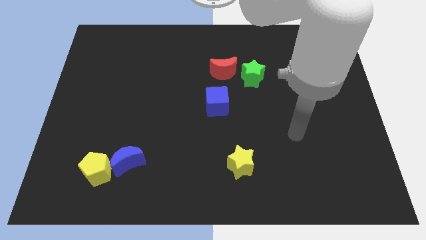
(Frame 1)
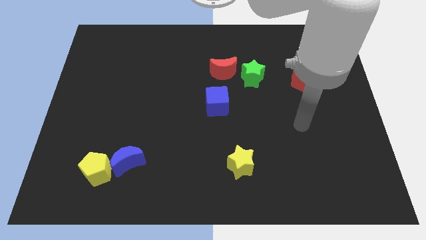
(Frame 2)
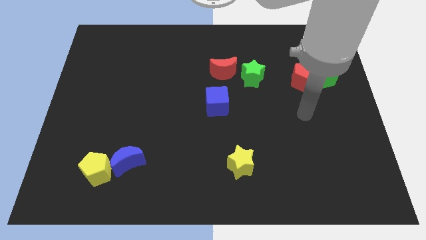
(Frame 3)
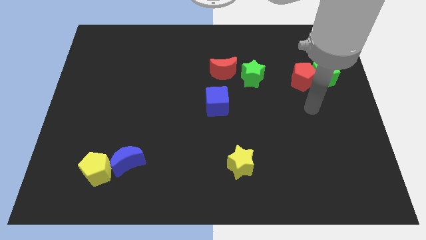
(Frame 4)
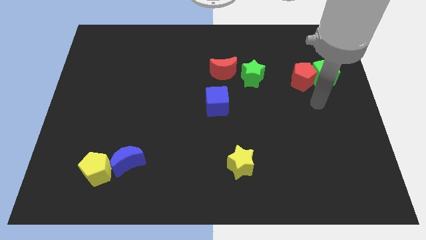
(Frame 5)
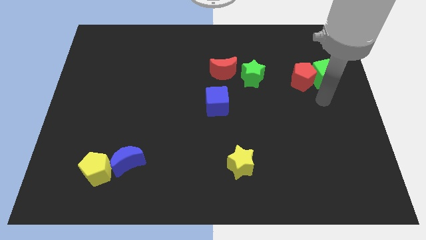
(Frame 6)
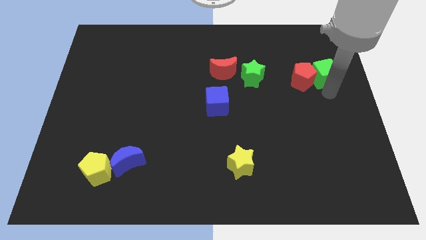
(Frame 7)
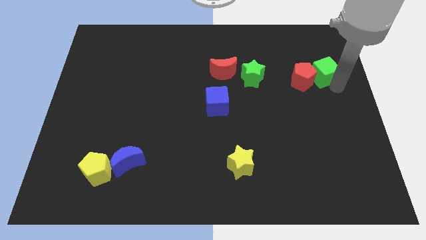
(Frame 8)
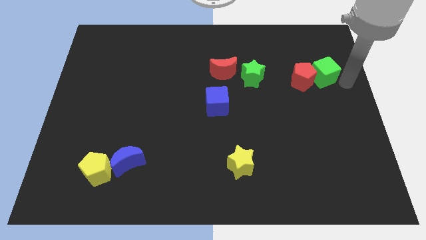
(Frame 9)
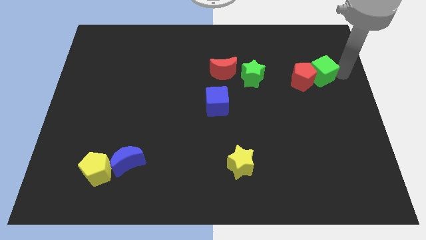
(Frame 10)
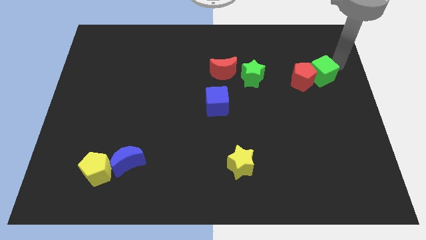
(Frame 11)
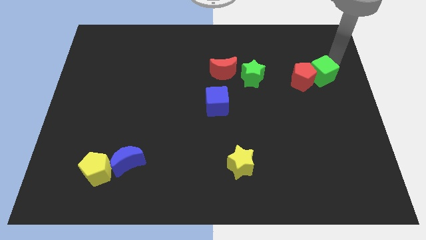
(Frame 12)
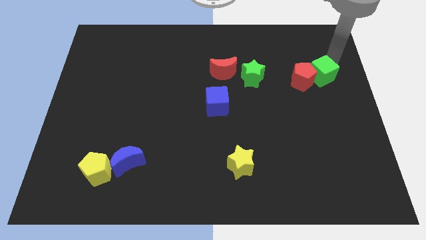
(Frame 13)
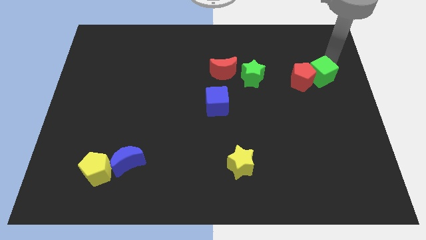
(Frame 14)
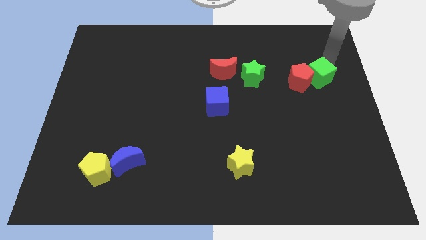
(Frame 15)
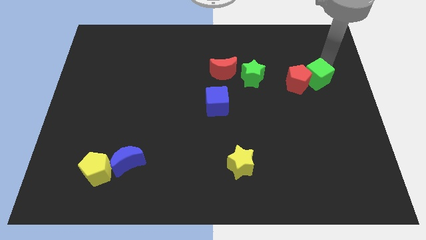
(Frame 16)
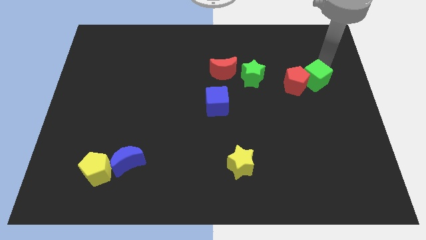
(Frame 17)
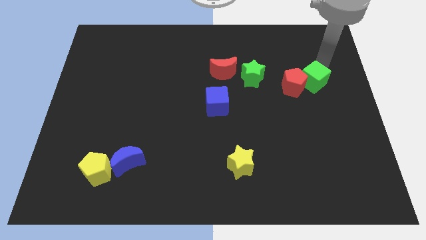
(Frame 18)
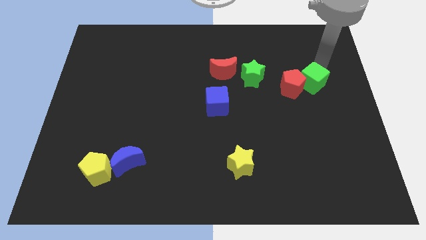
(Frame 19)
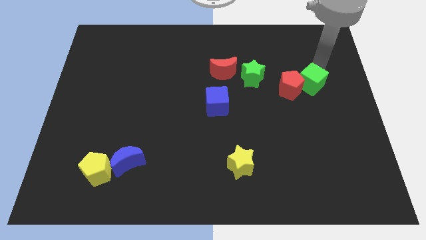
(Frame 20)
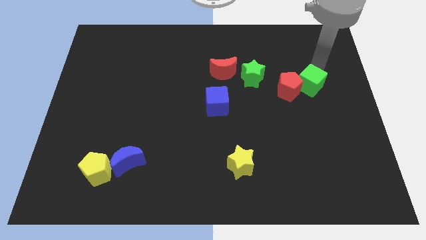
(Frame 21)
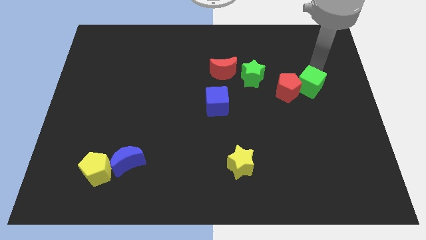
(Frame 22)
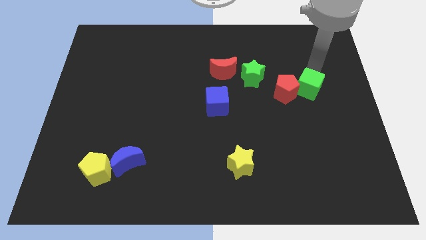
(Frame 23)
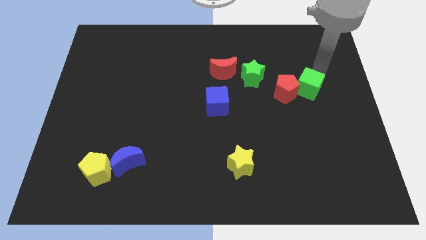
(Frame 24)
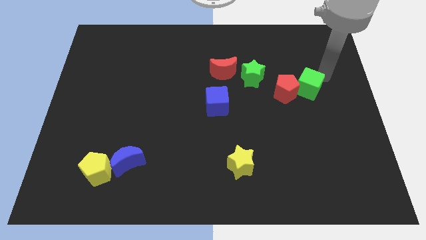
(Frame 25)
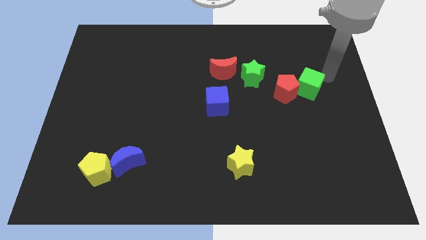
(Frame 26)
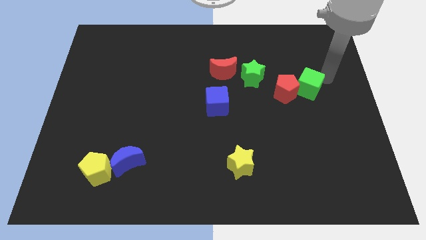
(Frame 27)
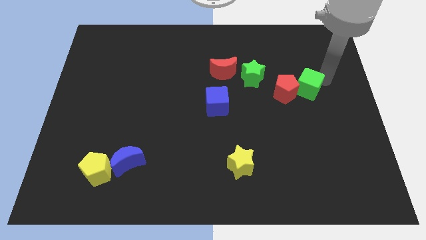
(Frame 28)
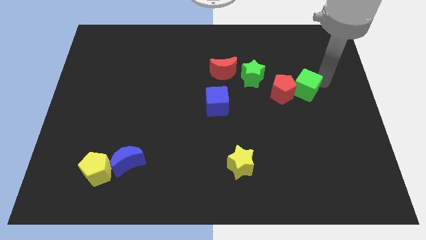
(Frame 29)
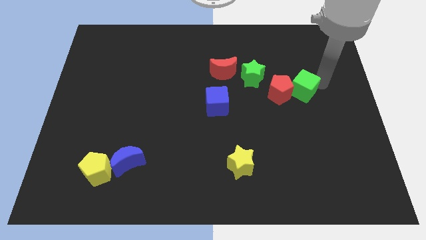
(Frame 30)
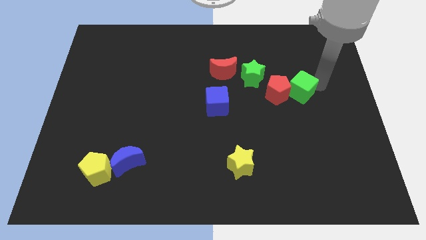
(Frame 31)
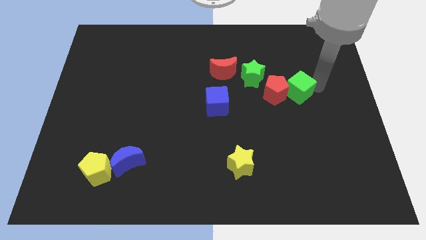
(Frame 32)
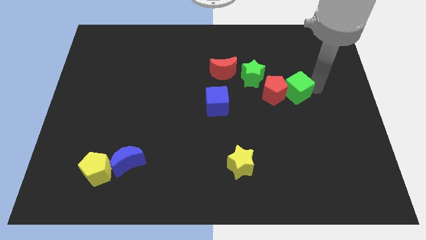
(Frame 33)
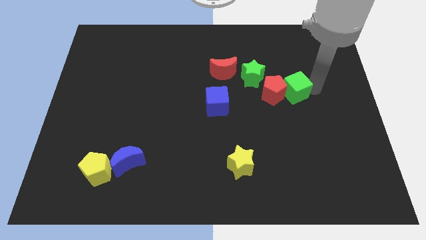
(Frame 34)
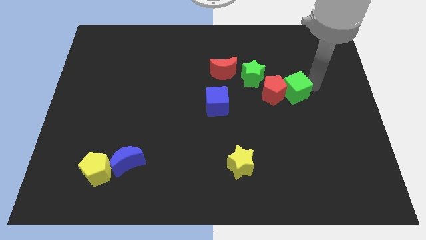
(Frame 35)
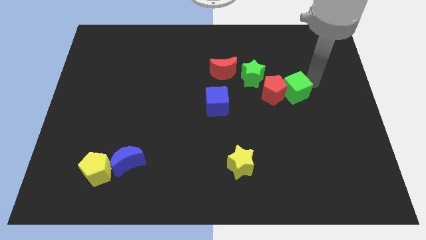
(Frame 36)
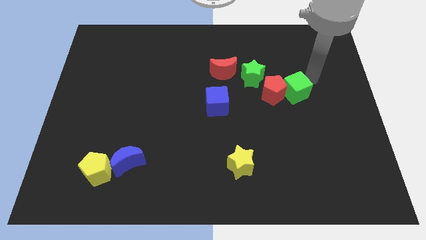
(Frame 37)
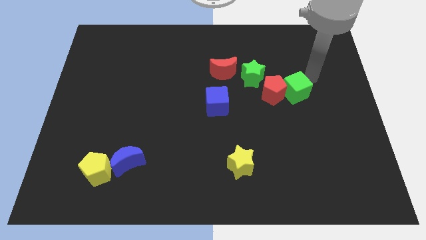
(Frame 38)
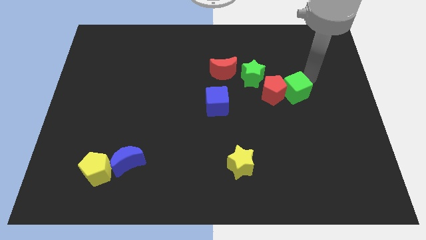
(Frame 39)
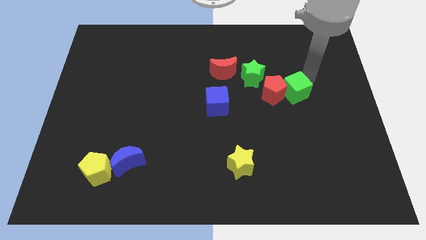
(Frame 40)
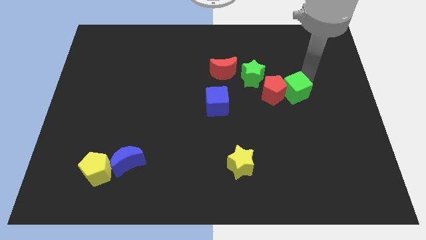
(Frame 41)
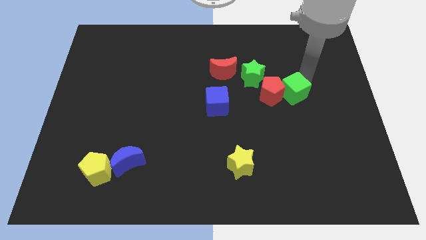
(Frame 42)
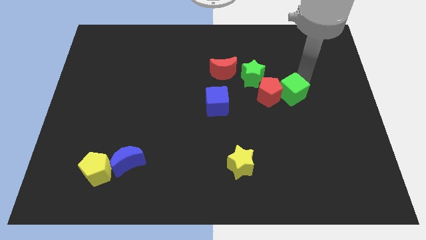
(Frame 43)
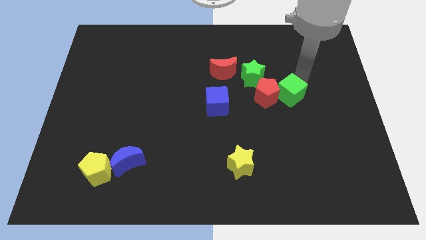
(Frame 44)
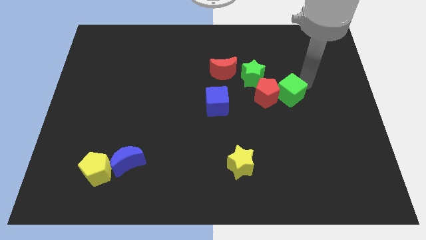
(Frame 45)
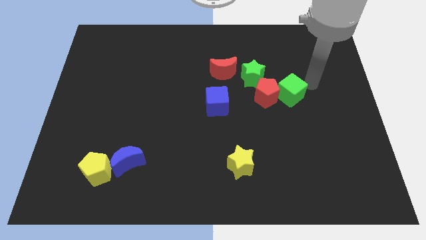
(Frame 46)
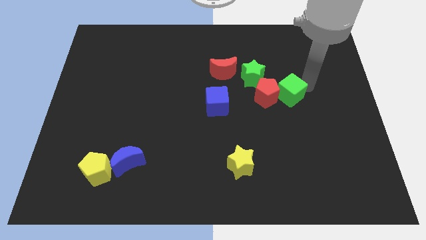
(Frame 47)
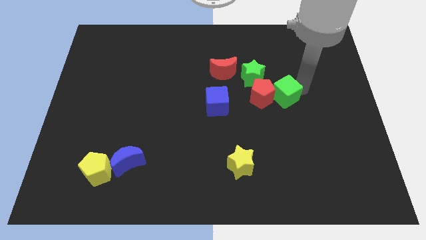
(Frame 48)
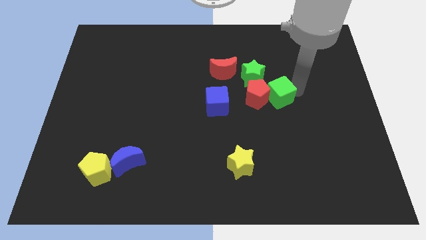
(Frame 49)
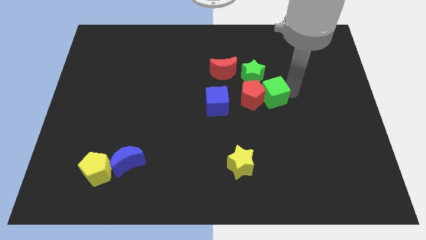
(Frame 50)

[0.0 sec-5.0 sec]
slide the green cube below the green star

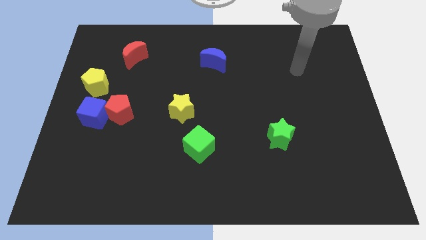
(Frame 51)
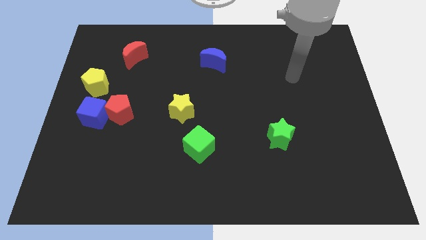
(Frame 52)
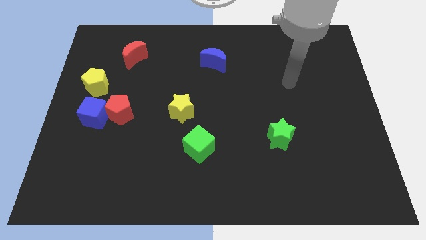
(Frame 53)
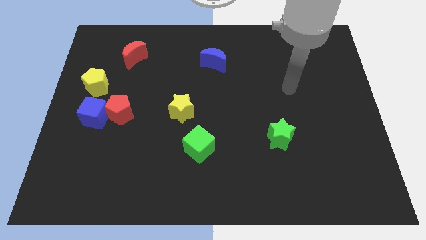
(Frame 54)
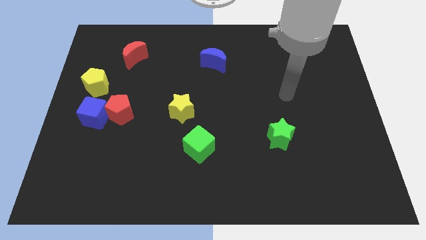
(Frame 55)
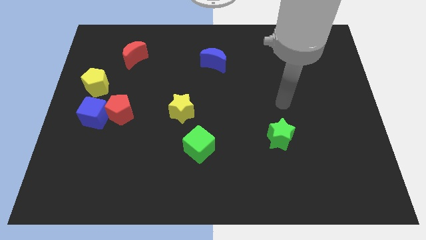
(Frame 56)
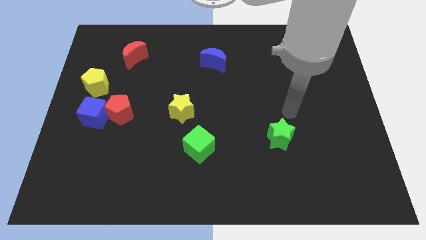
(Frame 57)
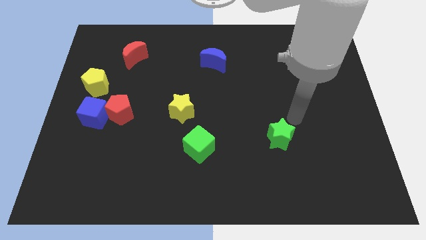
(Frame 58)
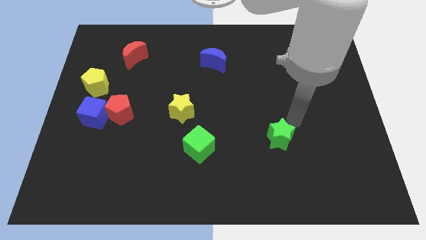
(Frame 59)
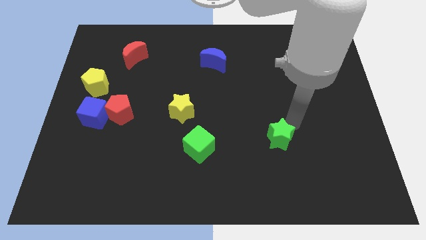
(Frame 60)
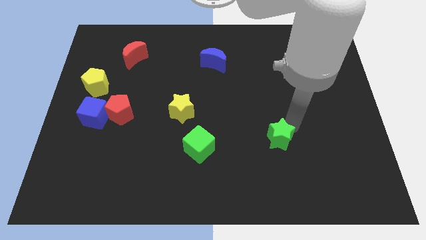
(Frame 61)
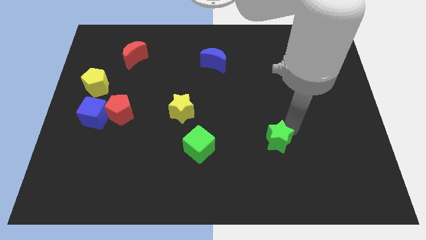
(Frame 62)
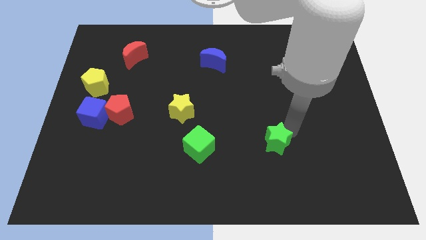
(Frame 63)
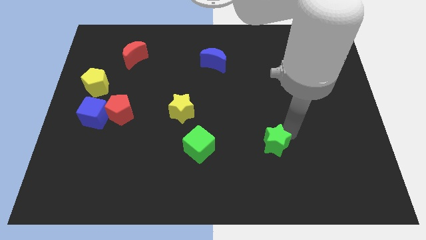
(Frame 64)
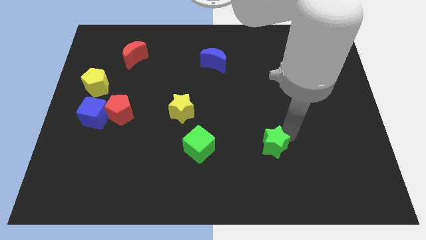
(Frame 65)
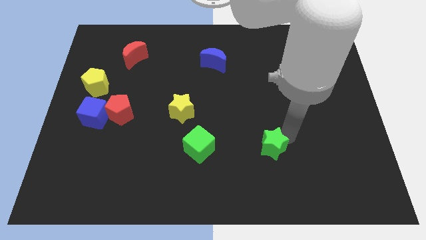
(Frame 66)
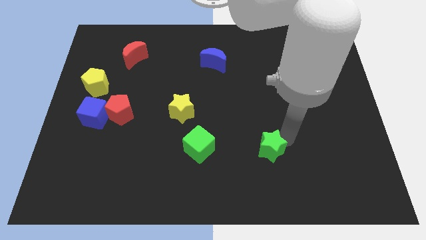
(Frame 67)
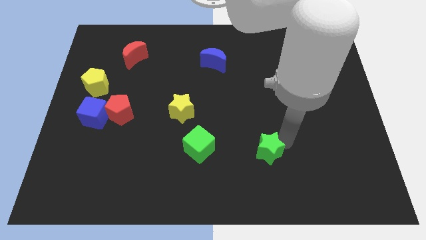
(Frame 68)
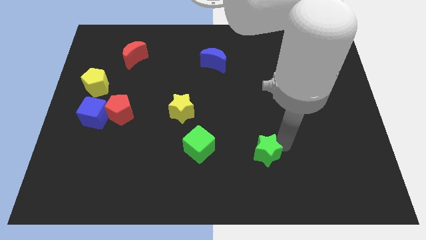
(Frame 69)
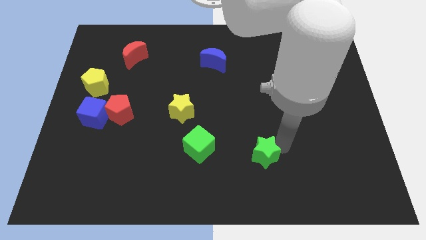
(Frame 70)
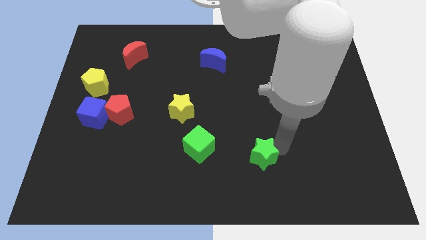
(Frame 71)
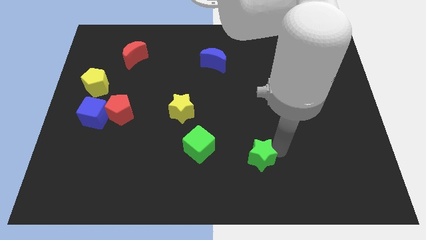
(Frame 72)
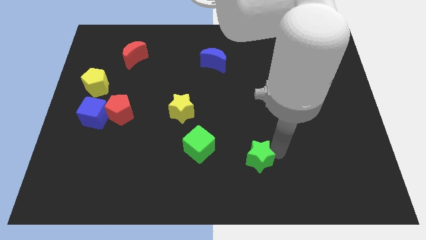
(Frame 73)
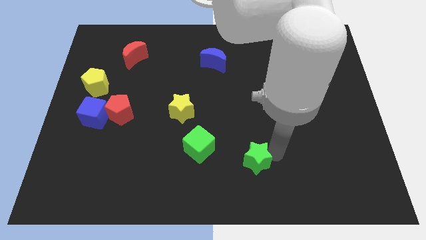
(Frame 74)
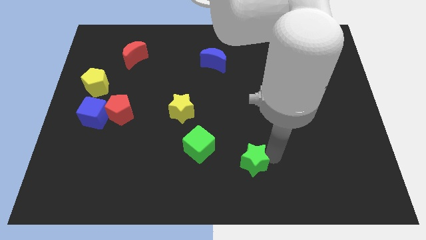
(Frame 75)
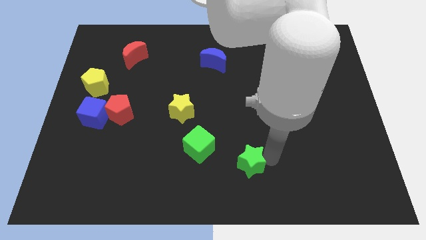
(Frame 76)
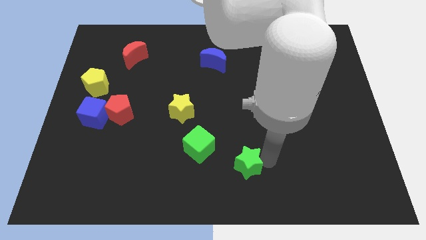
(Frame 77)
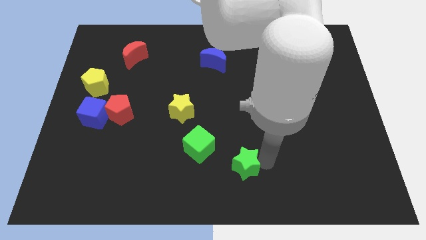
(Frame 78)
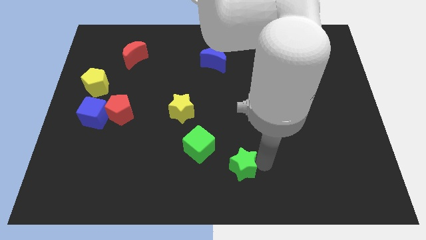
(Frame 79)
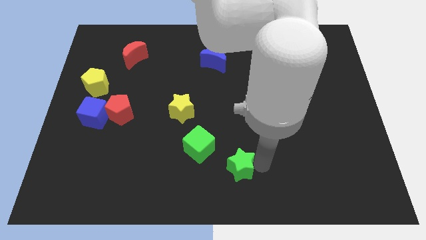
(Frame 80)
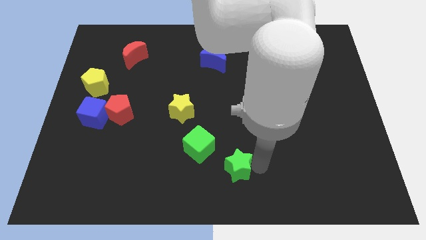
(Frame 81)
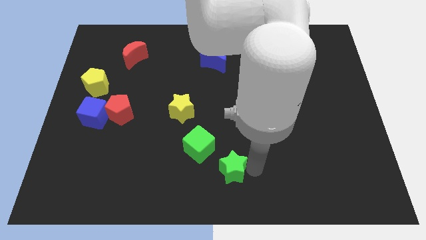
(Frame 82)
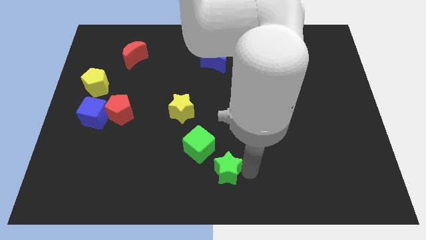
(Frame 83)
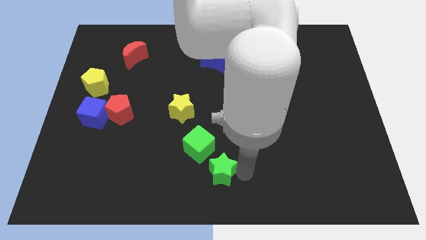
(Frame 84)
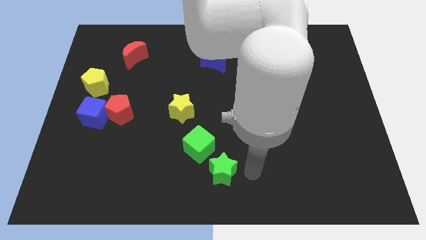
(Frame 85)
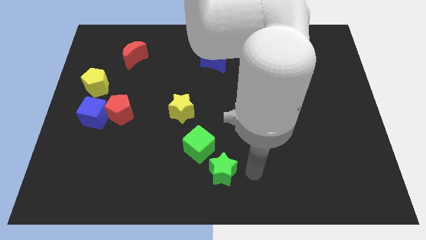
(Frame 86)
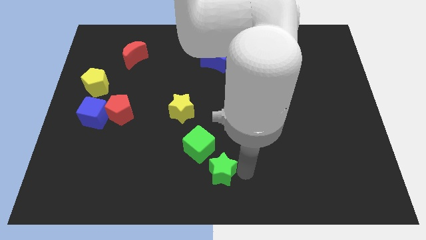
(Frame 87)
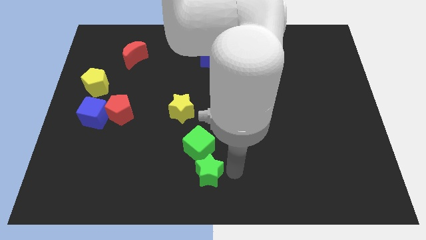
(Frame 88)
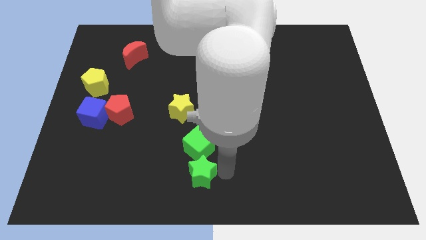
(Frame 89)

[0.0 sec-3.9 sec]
move the green star to the bottom left of the green cube
